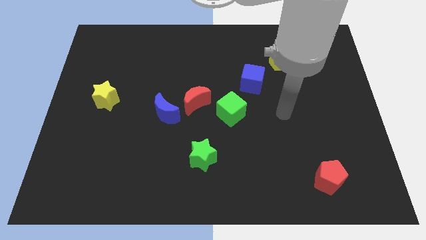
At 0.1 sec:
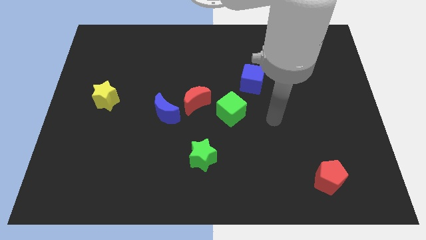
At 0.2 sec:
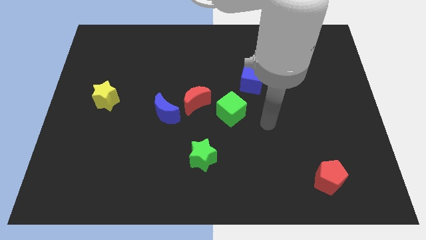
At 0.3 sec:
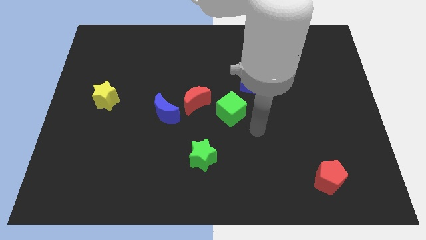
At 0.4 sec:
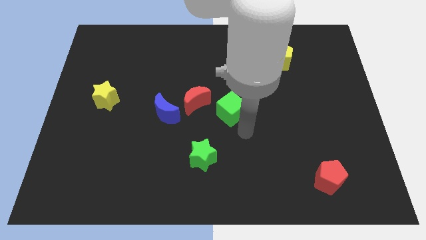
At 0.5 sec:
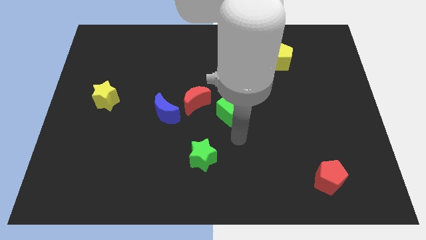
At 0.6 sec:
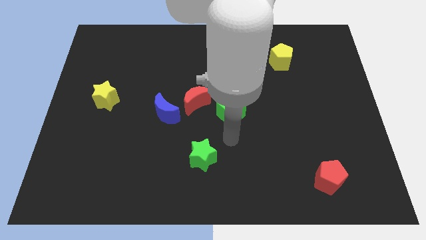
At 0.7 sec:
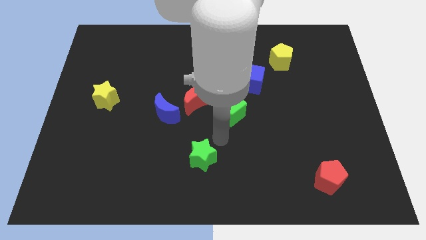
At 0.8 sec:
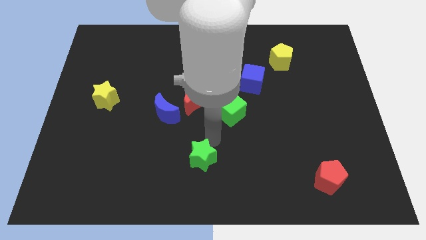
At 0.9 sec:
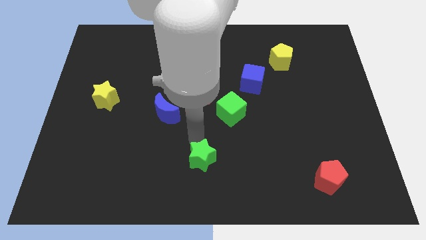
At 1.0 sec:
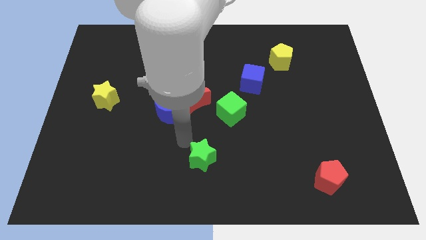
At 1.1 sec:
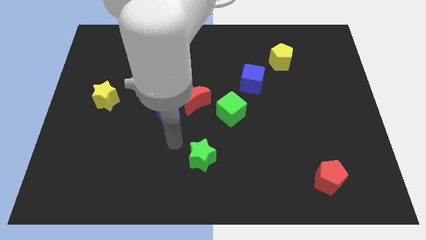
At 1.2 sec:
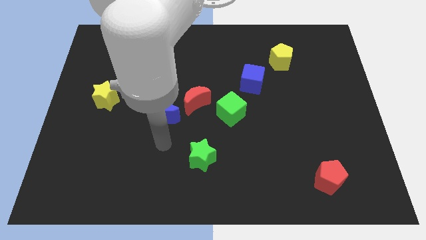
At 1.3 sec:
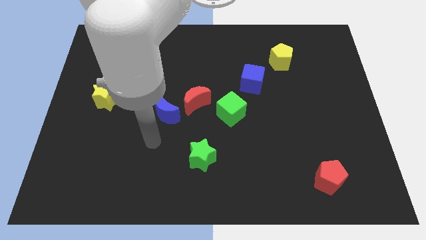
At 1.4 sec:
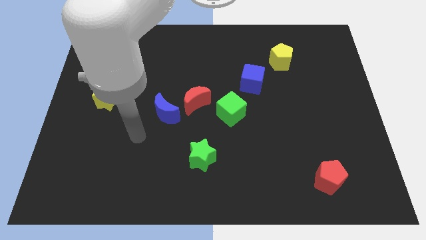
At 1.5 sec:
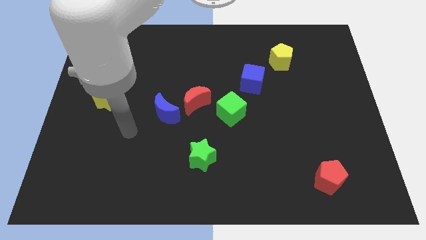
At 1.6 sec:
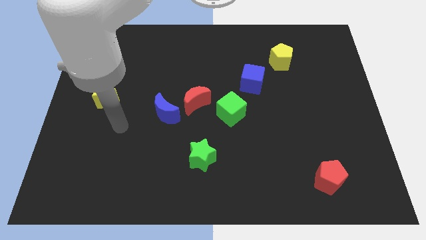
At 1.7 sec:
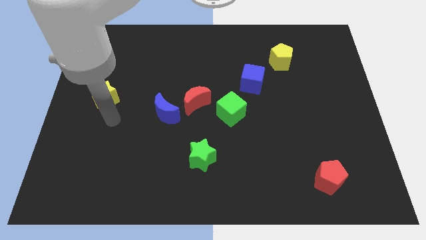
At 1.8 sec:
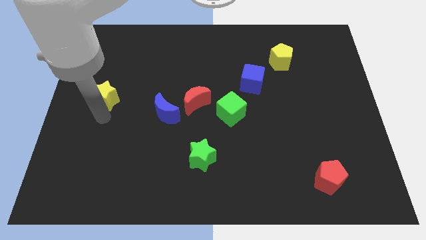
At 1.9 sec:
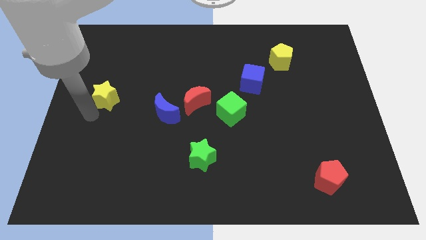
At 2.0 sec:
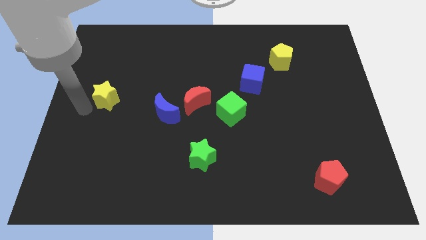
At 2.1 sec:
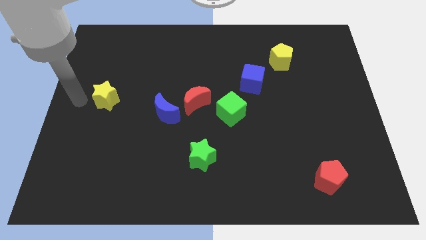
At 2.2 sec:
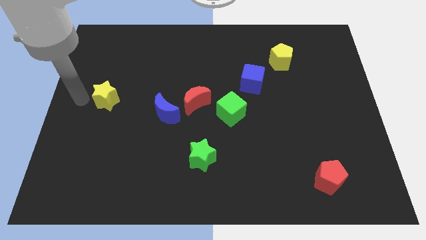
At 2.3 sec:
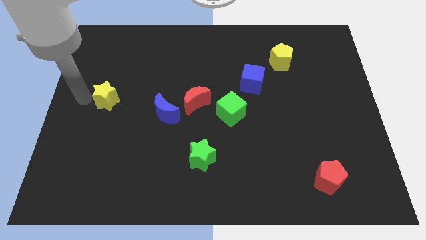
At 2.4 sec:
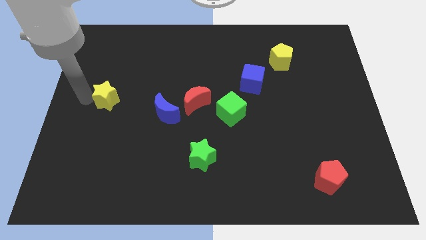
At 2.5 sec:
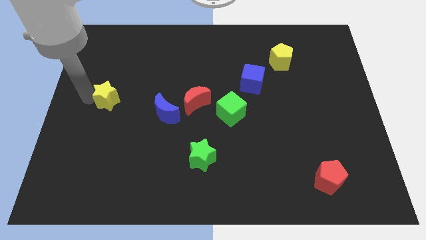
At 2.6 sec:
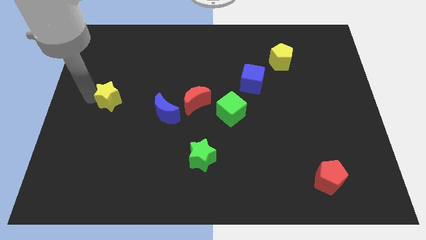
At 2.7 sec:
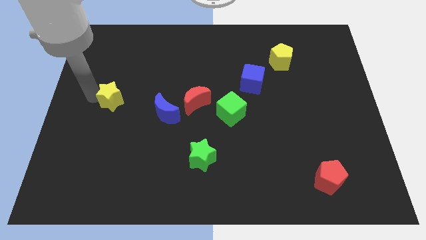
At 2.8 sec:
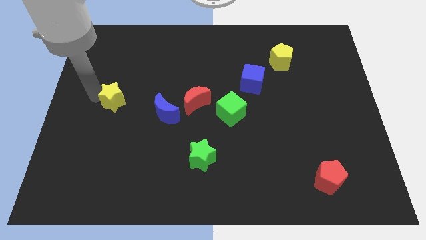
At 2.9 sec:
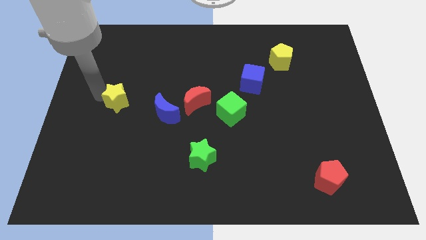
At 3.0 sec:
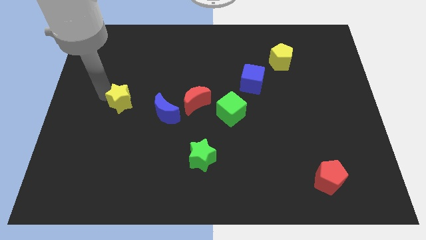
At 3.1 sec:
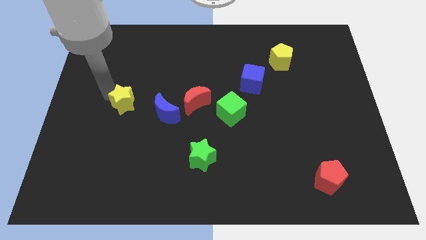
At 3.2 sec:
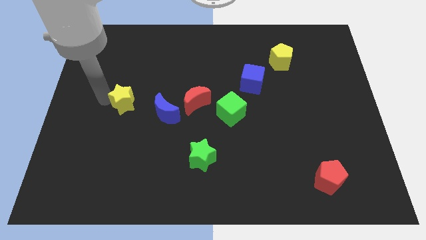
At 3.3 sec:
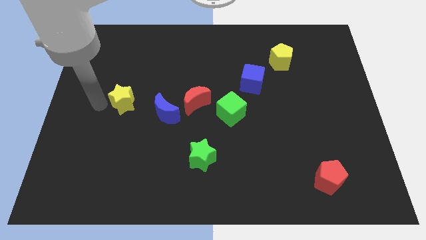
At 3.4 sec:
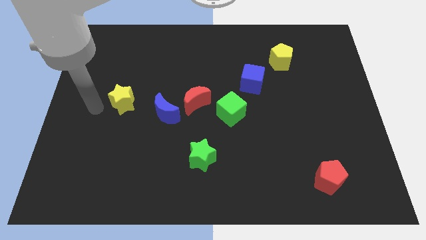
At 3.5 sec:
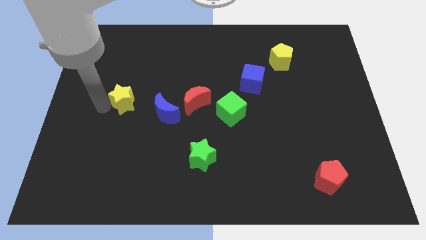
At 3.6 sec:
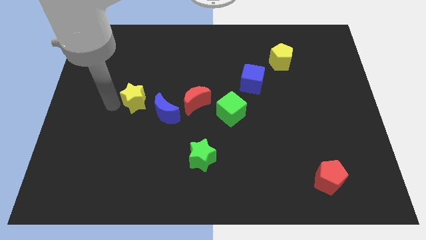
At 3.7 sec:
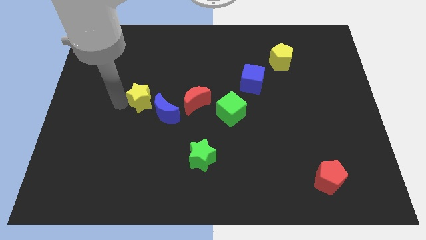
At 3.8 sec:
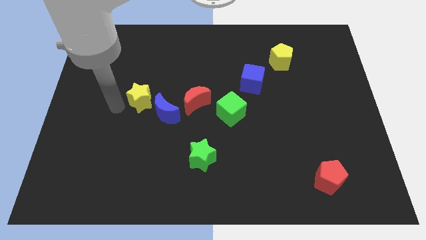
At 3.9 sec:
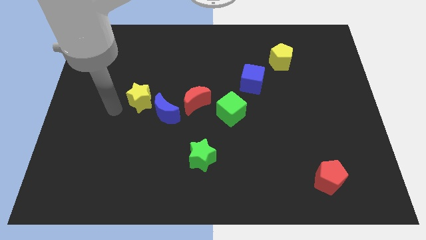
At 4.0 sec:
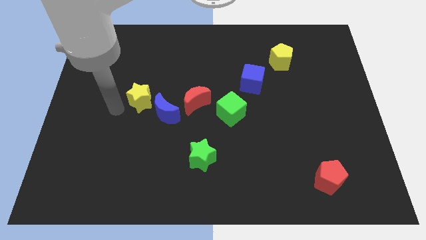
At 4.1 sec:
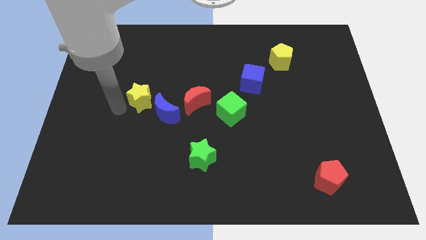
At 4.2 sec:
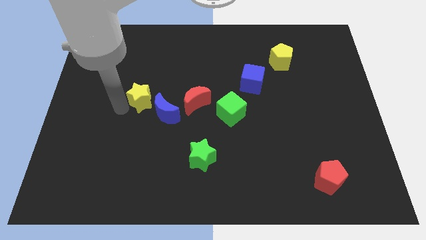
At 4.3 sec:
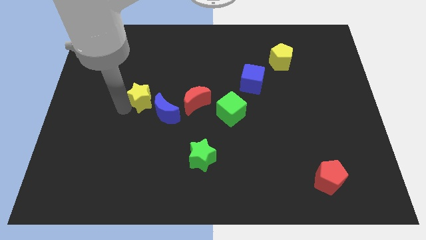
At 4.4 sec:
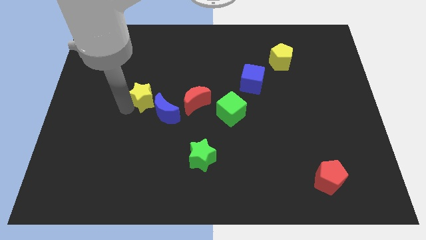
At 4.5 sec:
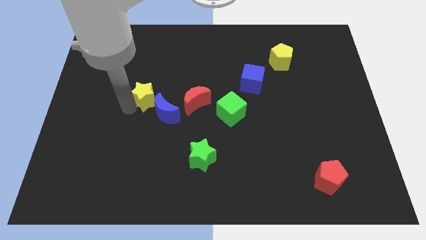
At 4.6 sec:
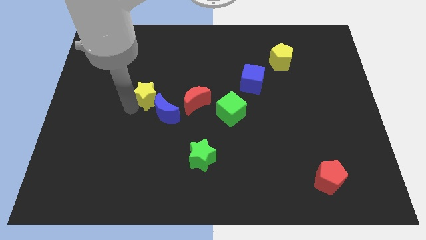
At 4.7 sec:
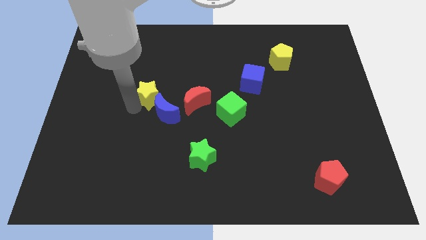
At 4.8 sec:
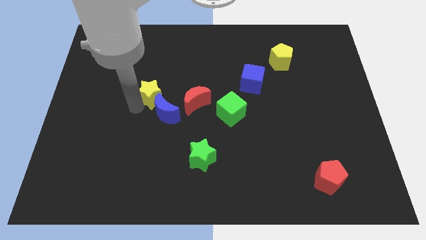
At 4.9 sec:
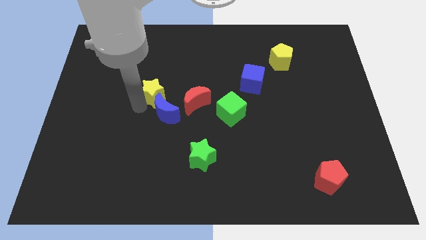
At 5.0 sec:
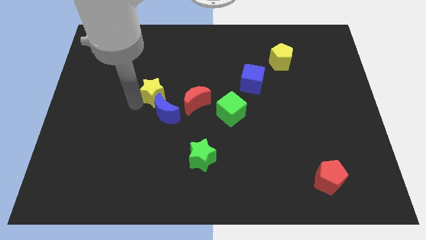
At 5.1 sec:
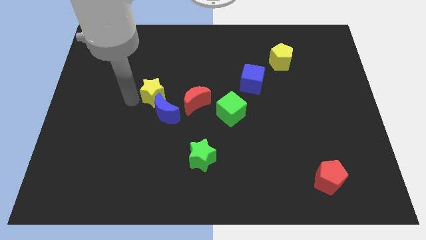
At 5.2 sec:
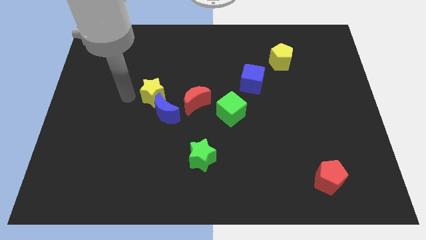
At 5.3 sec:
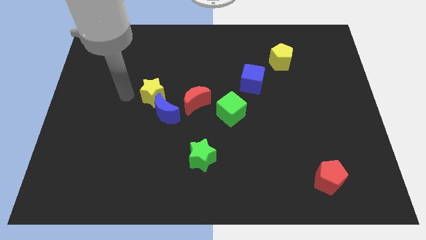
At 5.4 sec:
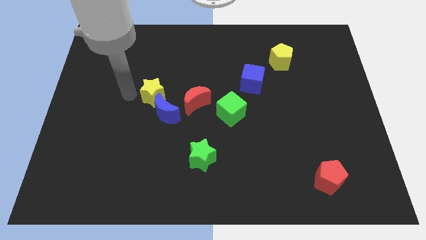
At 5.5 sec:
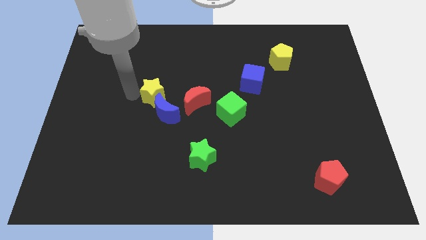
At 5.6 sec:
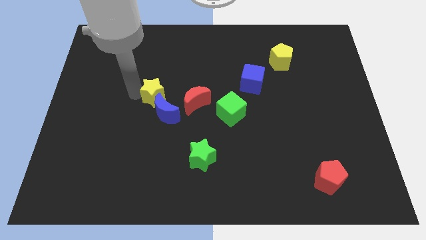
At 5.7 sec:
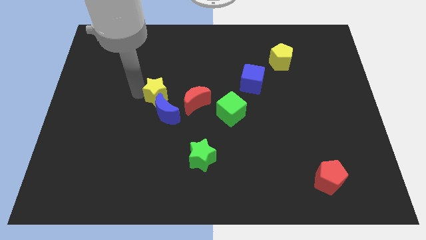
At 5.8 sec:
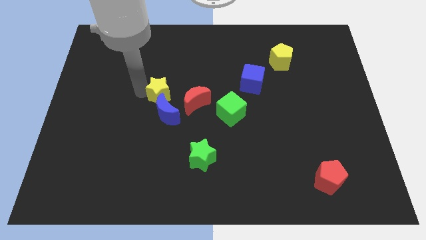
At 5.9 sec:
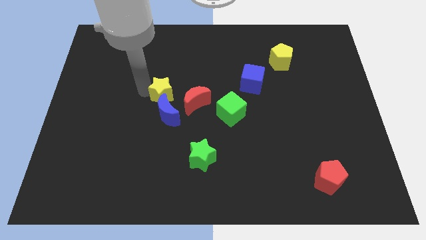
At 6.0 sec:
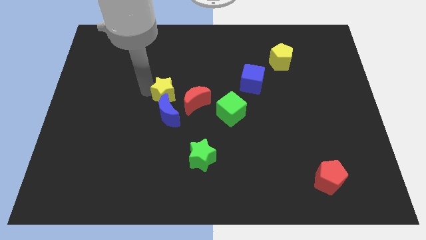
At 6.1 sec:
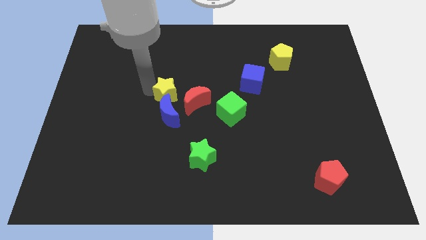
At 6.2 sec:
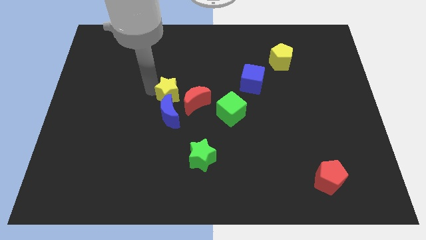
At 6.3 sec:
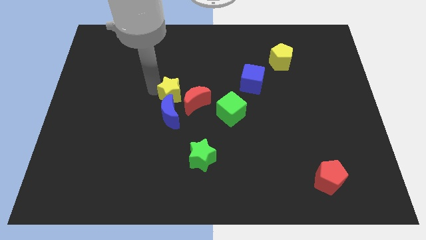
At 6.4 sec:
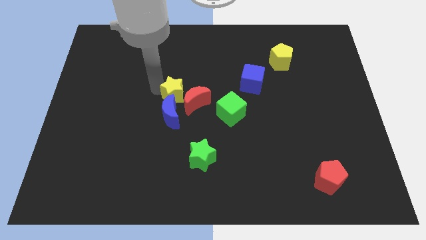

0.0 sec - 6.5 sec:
move the yellow star close to the red moon
